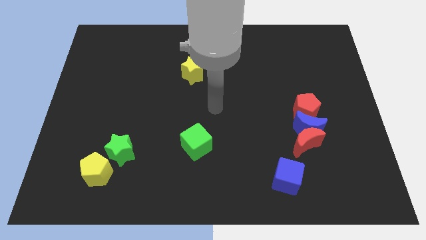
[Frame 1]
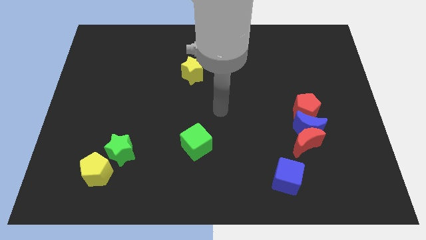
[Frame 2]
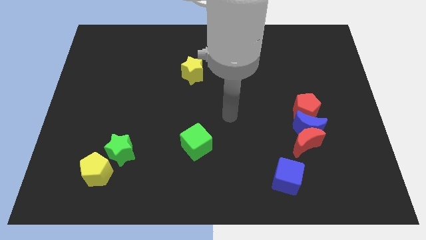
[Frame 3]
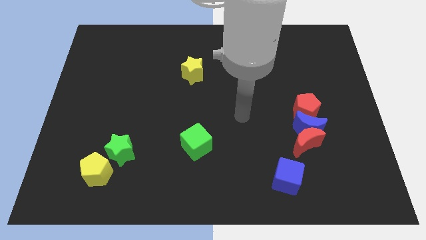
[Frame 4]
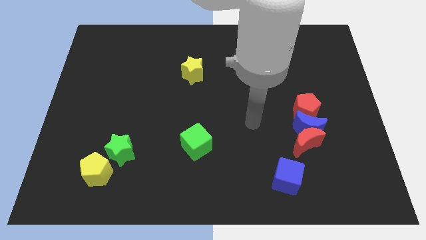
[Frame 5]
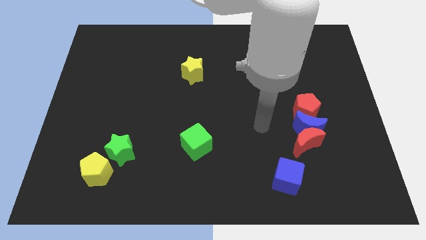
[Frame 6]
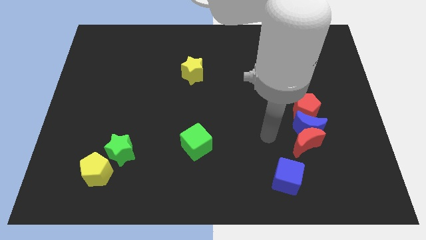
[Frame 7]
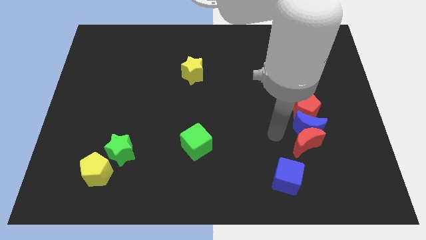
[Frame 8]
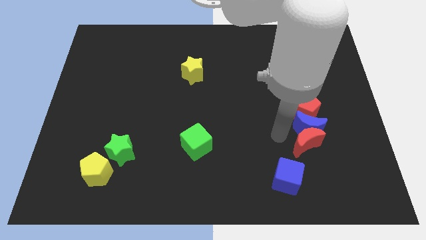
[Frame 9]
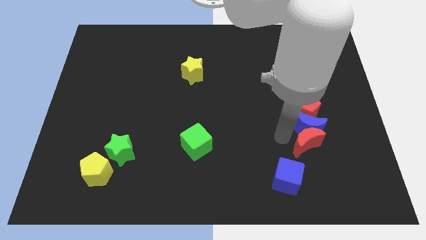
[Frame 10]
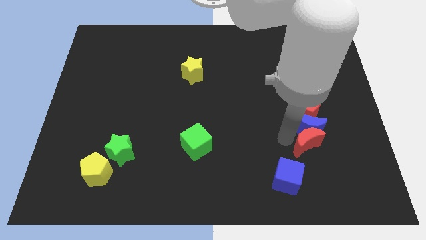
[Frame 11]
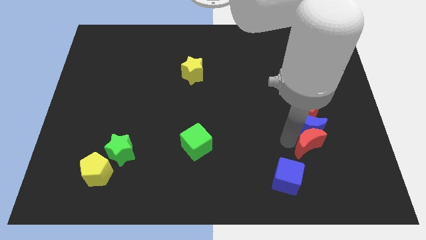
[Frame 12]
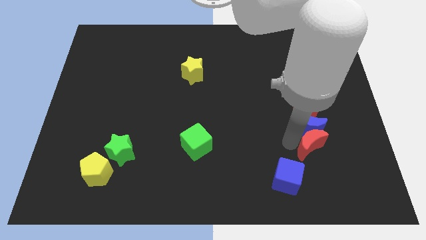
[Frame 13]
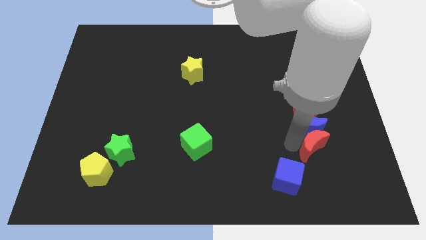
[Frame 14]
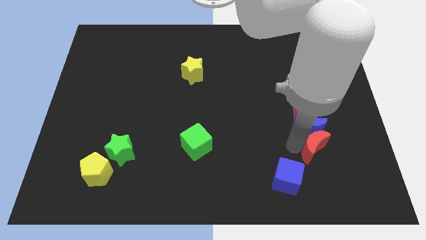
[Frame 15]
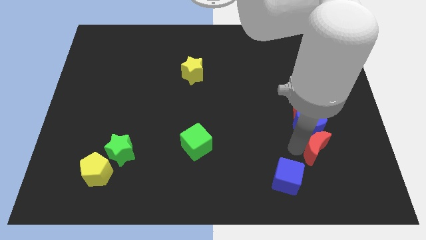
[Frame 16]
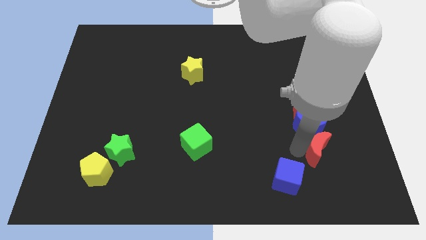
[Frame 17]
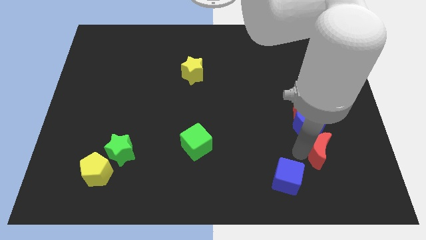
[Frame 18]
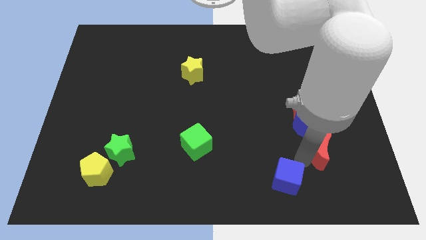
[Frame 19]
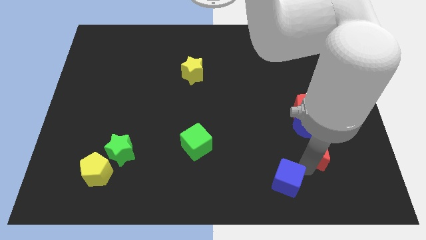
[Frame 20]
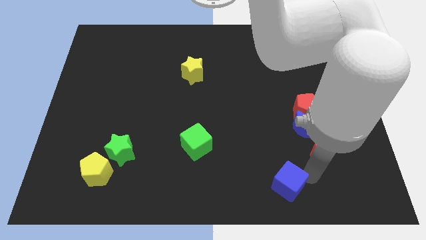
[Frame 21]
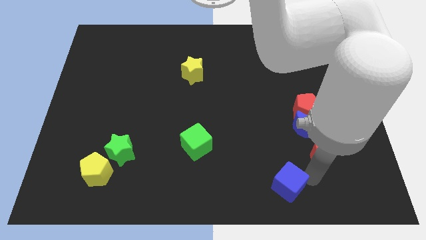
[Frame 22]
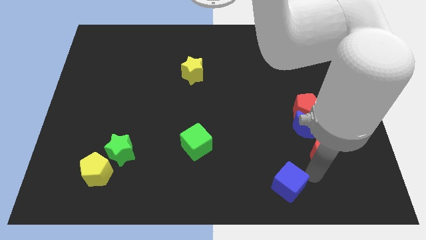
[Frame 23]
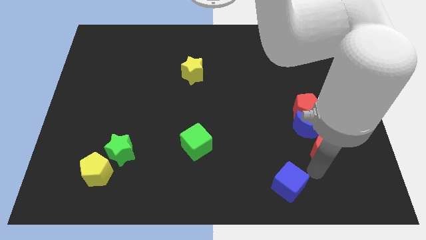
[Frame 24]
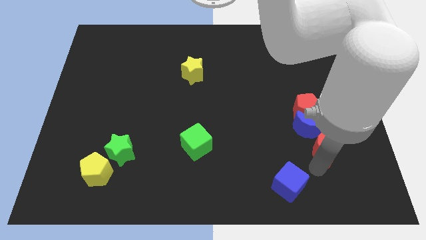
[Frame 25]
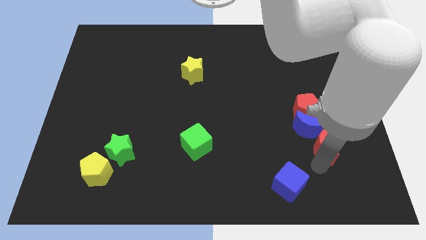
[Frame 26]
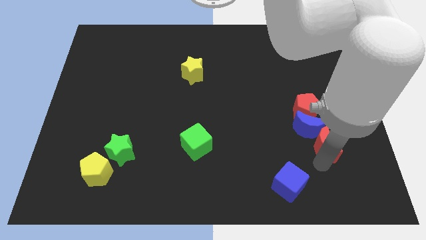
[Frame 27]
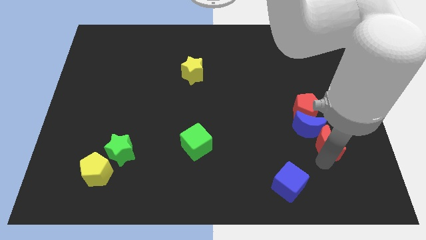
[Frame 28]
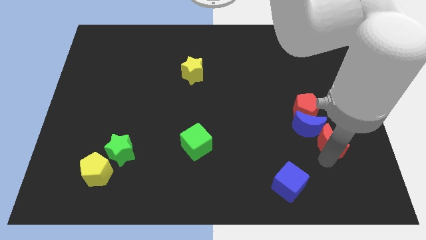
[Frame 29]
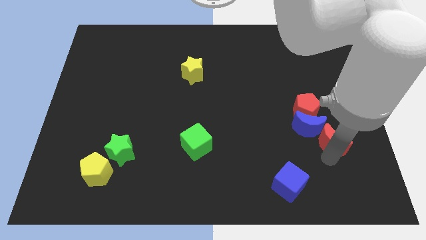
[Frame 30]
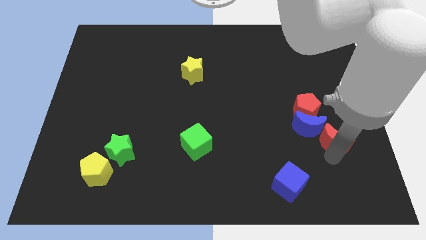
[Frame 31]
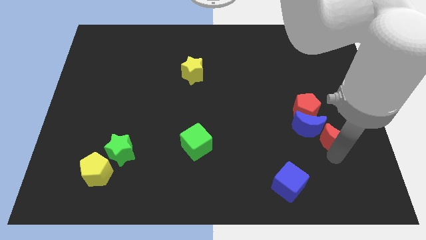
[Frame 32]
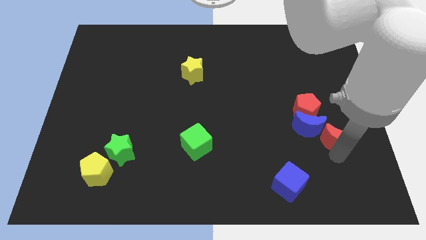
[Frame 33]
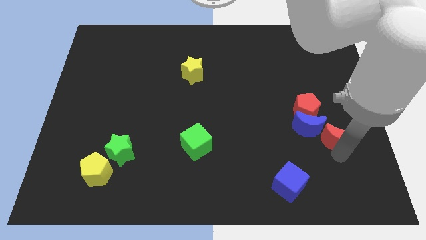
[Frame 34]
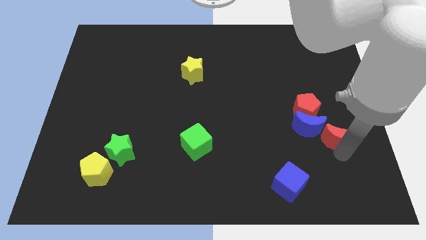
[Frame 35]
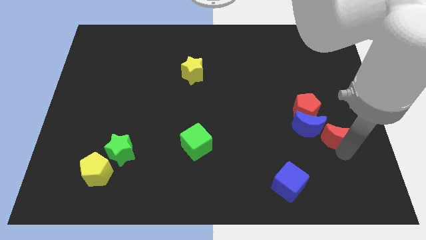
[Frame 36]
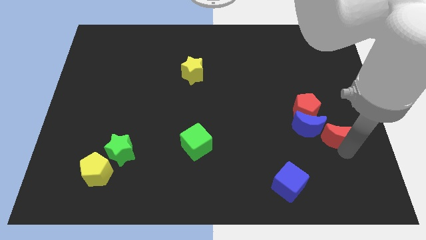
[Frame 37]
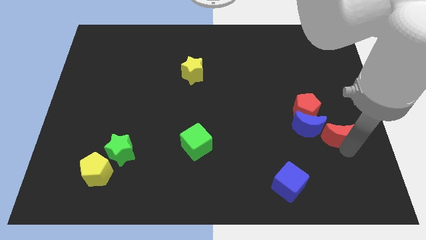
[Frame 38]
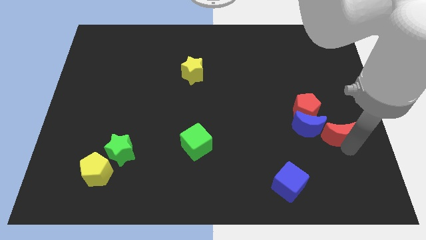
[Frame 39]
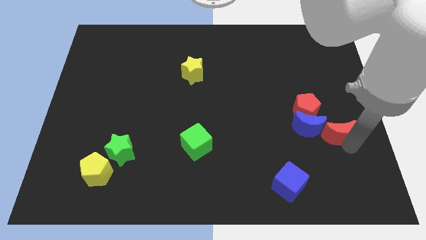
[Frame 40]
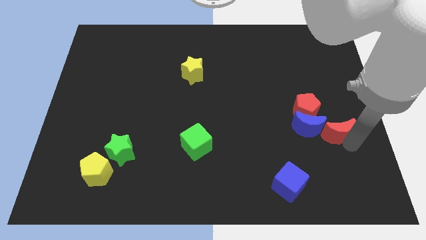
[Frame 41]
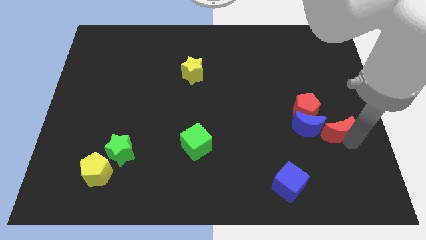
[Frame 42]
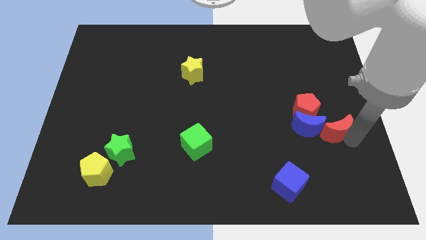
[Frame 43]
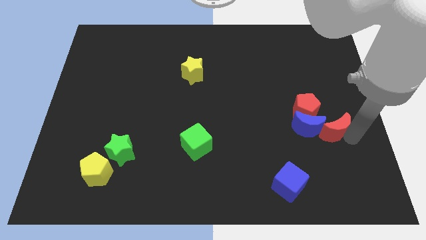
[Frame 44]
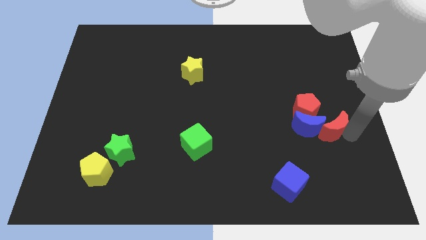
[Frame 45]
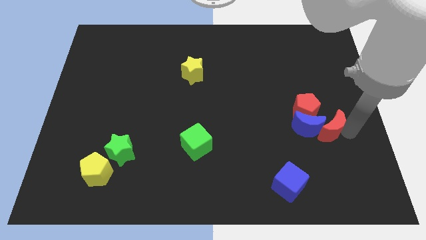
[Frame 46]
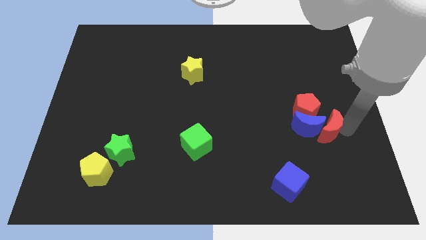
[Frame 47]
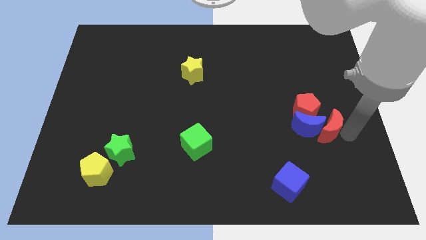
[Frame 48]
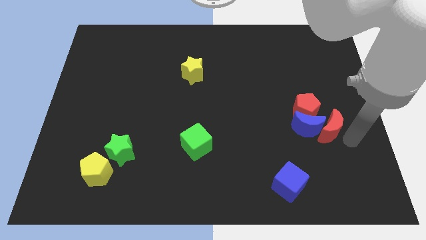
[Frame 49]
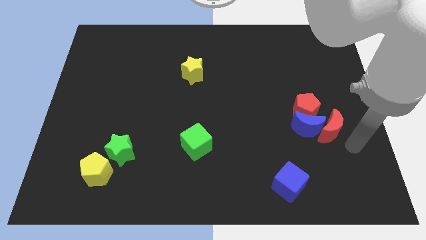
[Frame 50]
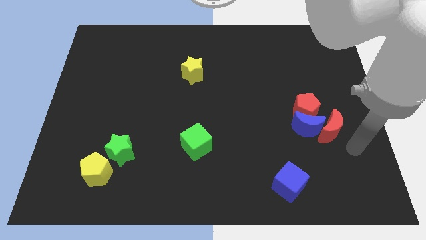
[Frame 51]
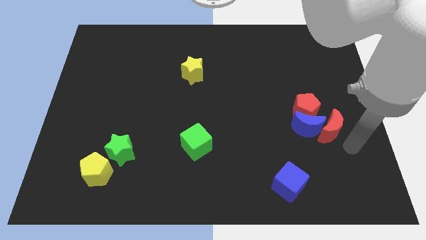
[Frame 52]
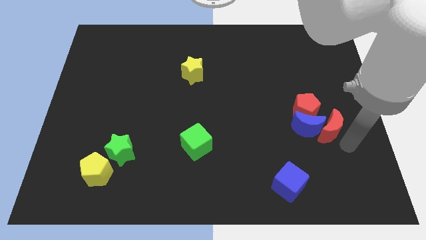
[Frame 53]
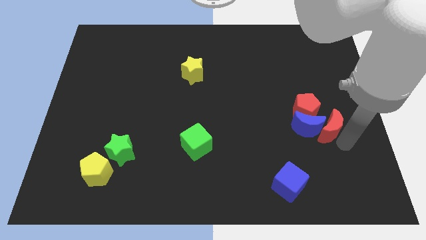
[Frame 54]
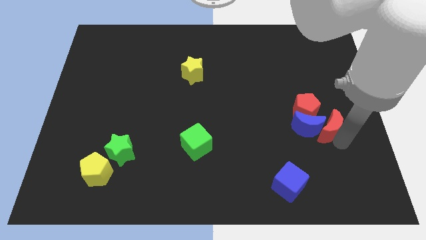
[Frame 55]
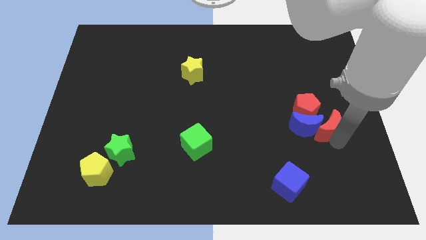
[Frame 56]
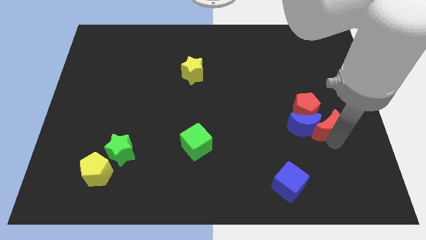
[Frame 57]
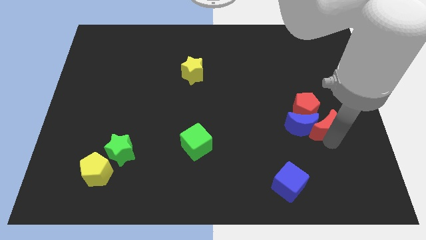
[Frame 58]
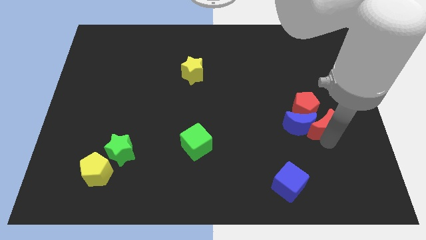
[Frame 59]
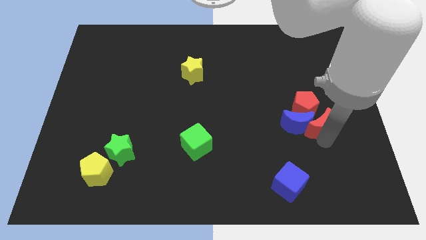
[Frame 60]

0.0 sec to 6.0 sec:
push the red moon towards the red pentagon

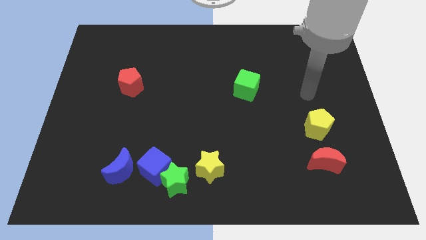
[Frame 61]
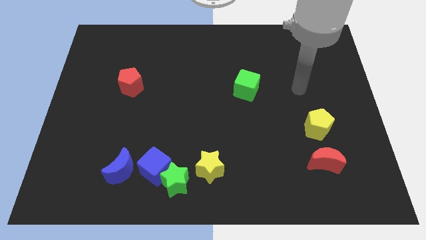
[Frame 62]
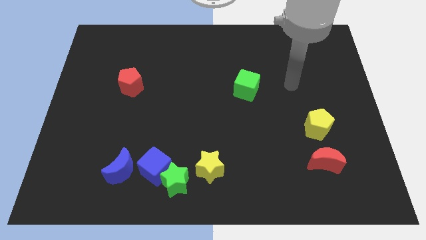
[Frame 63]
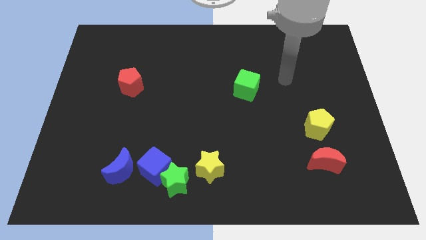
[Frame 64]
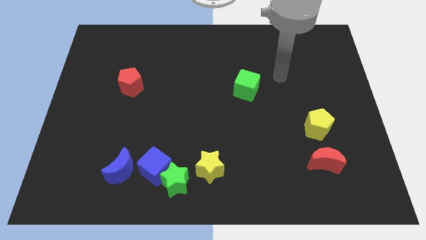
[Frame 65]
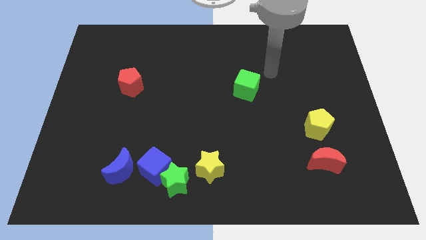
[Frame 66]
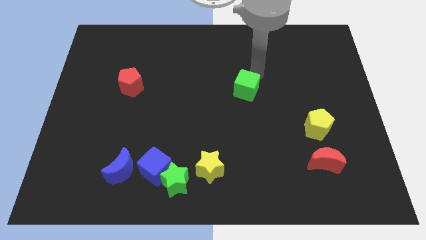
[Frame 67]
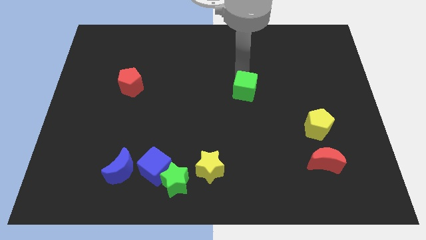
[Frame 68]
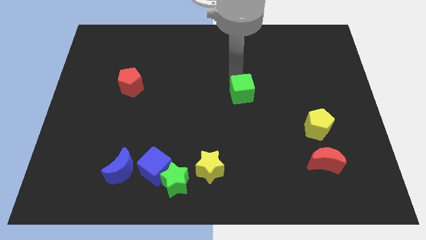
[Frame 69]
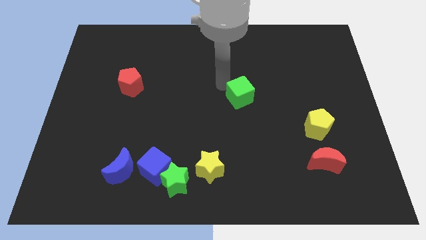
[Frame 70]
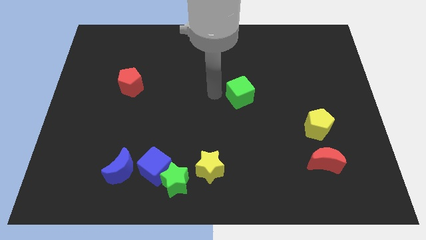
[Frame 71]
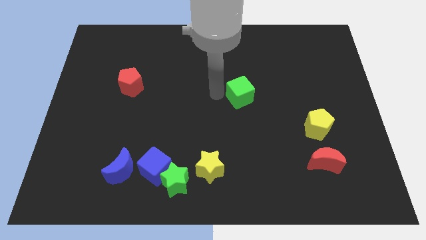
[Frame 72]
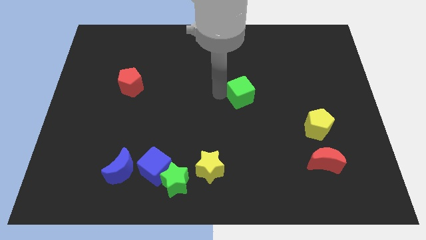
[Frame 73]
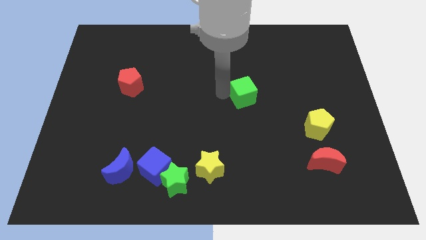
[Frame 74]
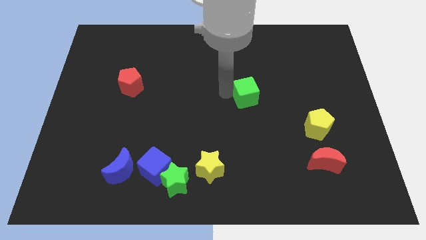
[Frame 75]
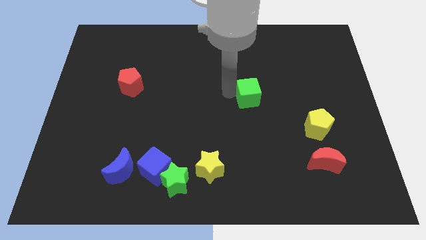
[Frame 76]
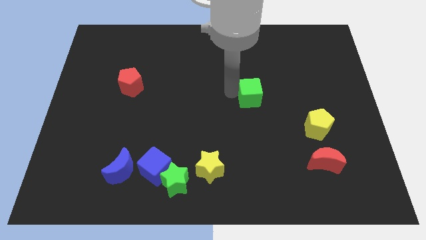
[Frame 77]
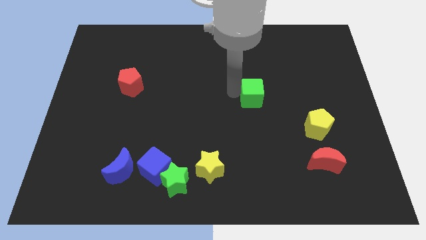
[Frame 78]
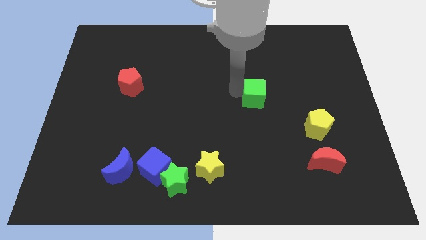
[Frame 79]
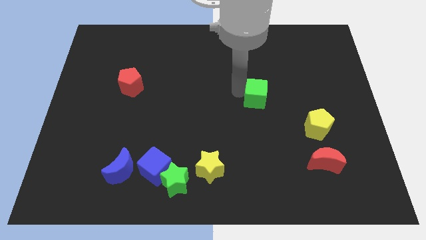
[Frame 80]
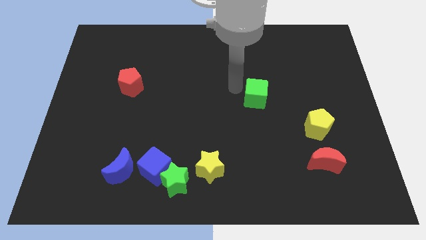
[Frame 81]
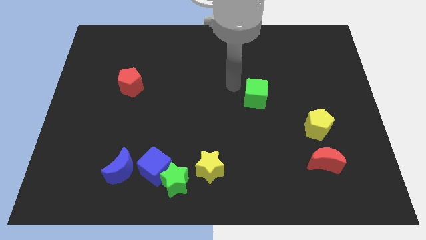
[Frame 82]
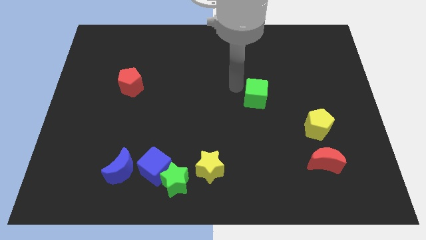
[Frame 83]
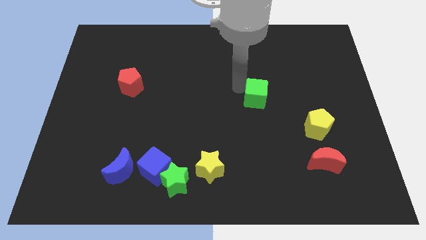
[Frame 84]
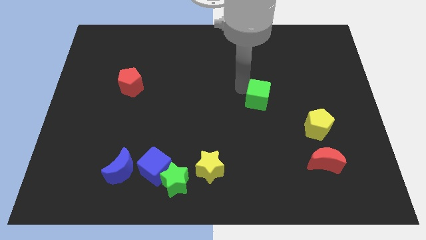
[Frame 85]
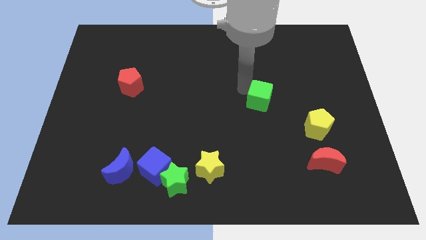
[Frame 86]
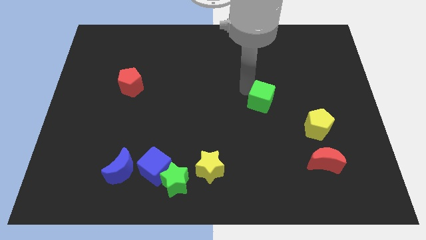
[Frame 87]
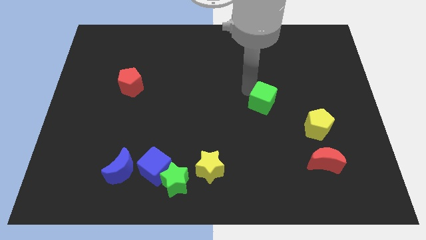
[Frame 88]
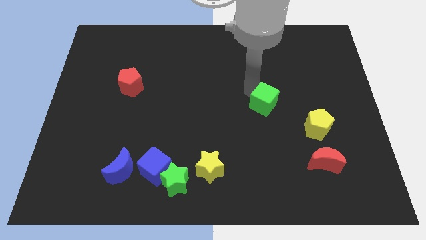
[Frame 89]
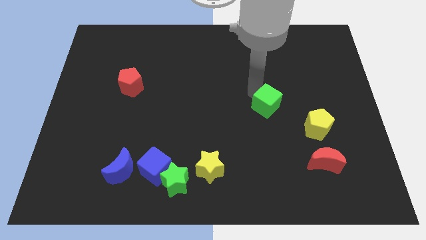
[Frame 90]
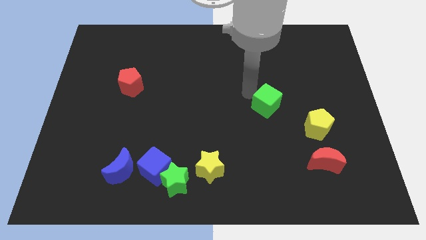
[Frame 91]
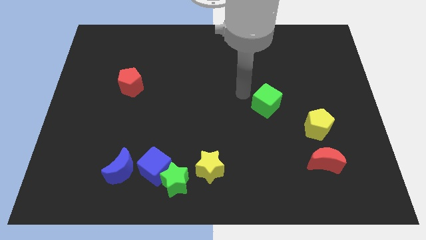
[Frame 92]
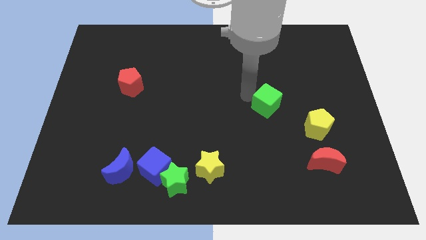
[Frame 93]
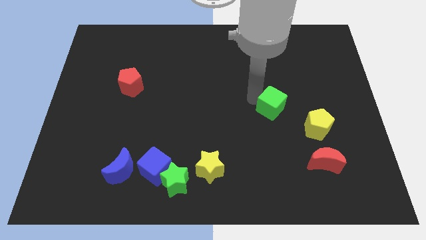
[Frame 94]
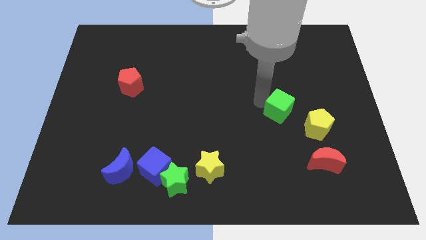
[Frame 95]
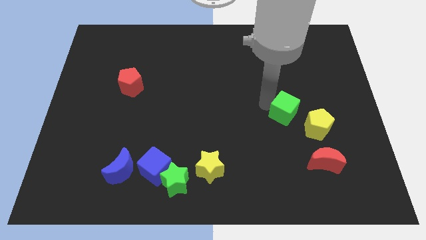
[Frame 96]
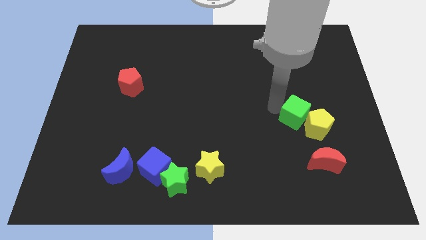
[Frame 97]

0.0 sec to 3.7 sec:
put the green cube close to the yellow pentagon
